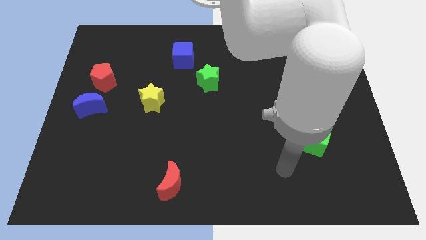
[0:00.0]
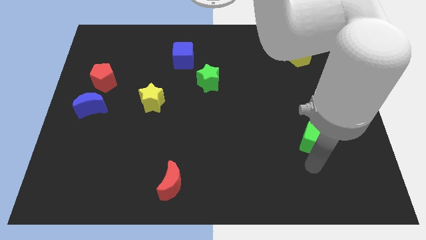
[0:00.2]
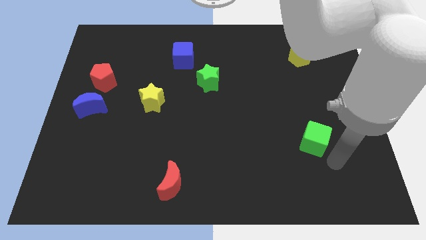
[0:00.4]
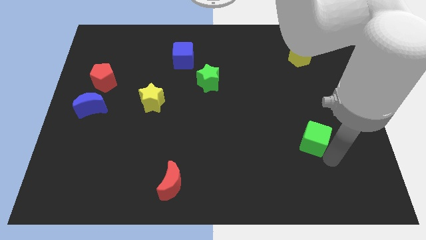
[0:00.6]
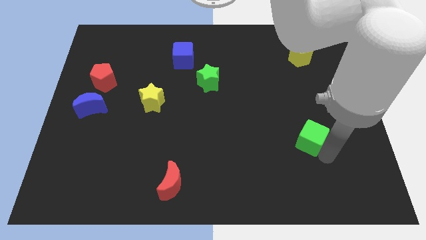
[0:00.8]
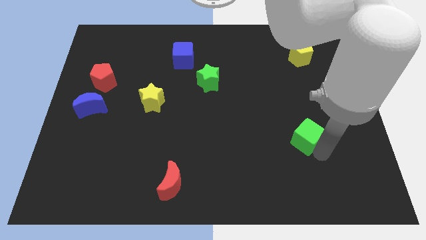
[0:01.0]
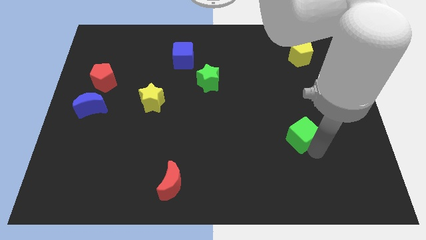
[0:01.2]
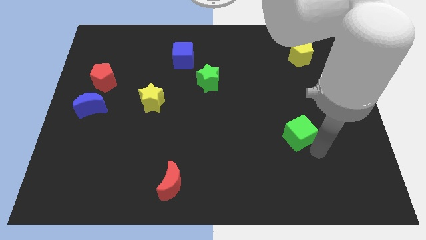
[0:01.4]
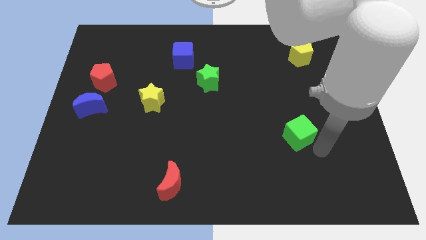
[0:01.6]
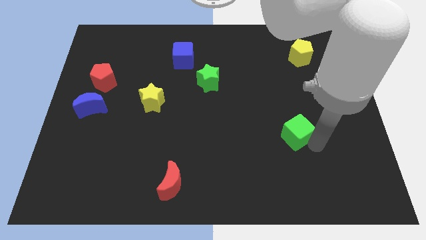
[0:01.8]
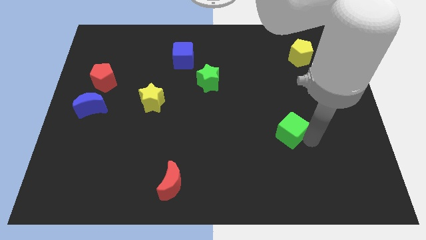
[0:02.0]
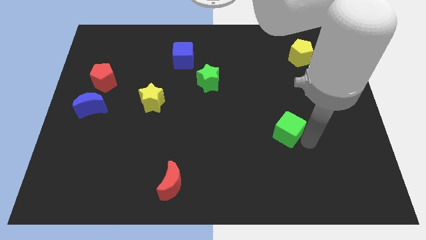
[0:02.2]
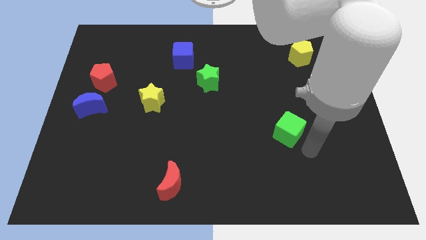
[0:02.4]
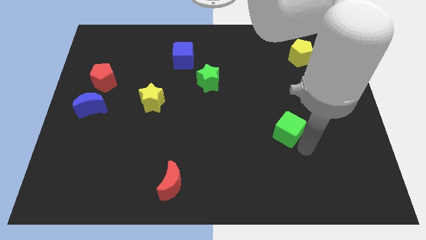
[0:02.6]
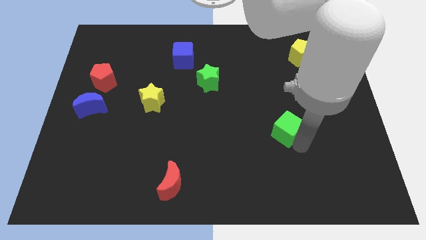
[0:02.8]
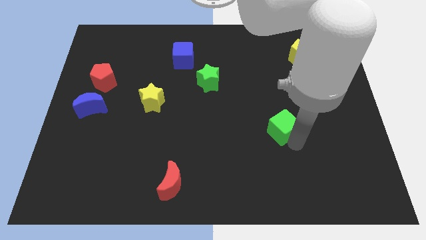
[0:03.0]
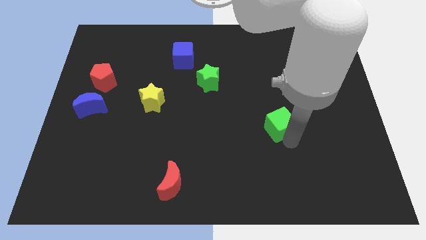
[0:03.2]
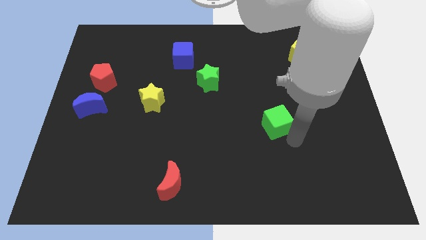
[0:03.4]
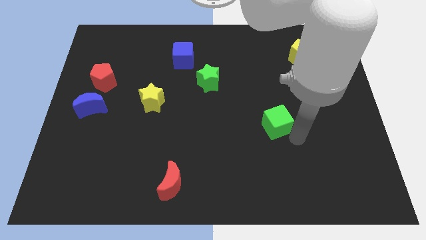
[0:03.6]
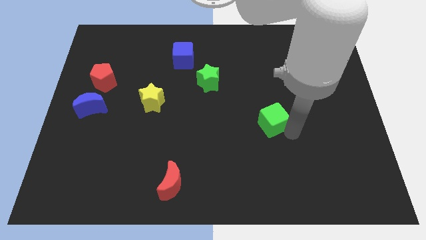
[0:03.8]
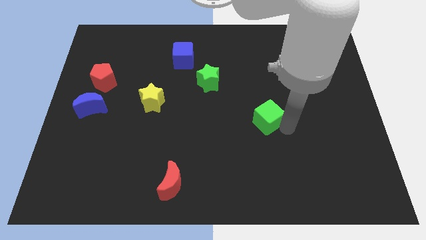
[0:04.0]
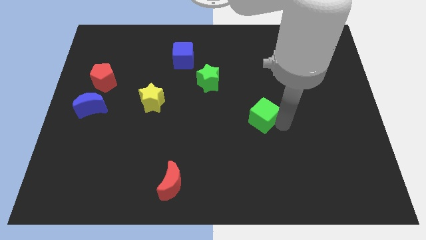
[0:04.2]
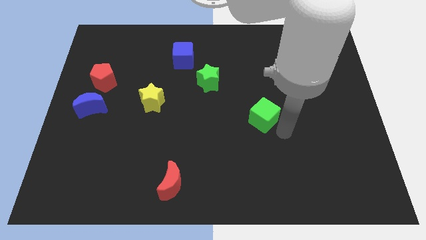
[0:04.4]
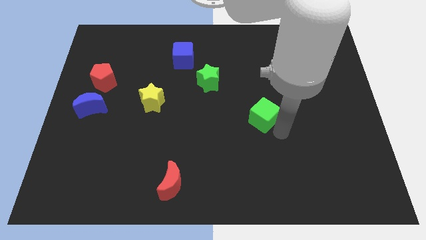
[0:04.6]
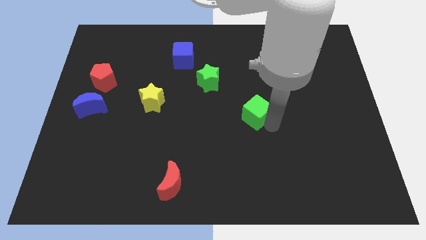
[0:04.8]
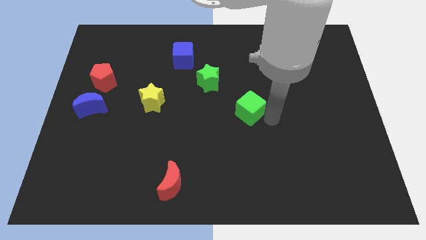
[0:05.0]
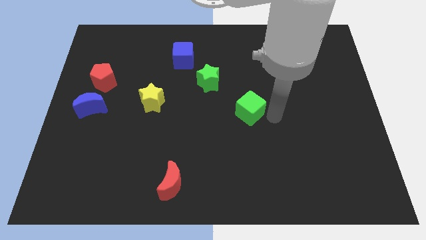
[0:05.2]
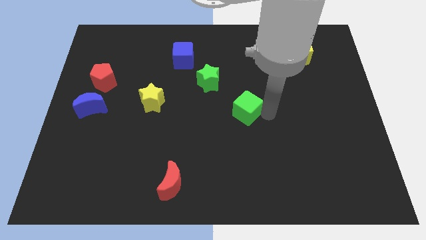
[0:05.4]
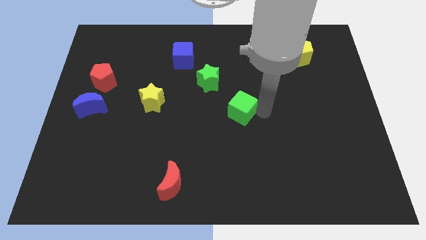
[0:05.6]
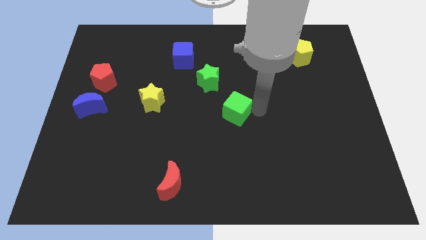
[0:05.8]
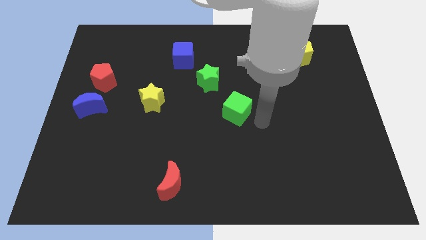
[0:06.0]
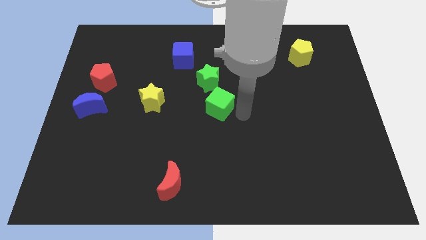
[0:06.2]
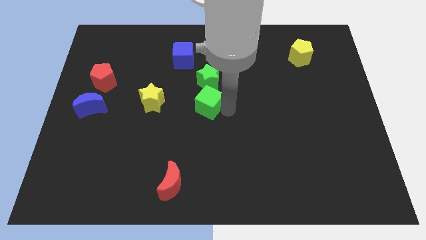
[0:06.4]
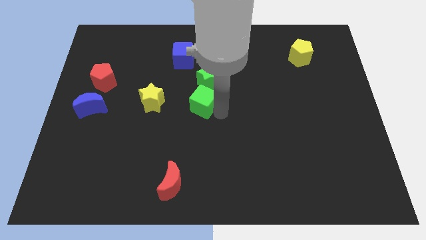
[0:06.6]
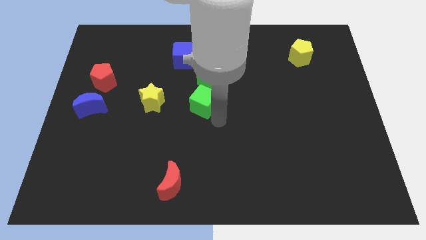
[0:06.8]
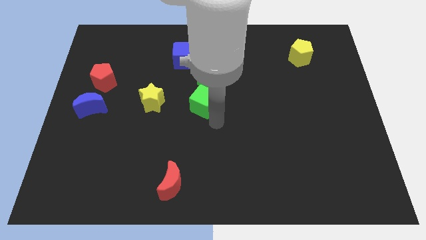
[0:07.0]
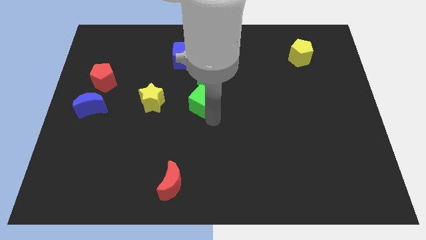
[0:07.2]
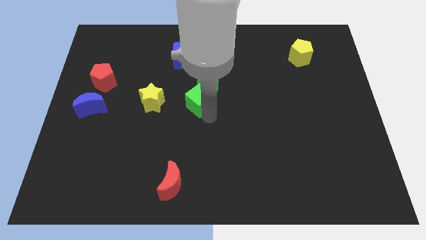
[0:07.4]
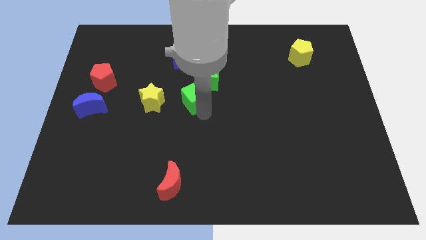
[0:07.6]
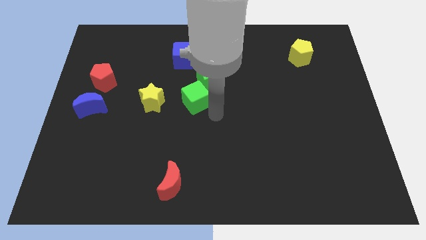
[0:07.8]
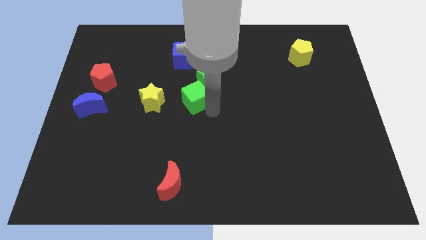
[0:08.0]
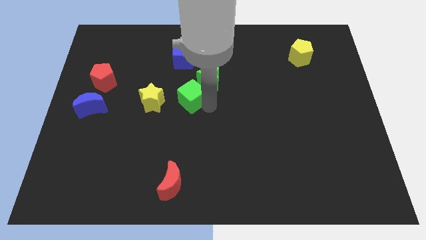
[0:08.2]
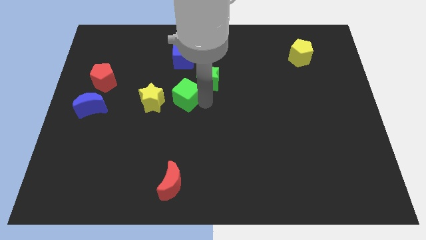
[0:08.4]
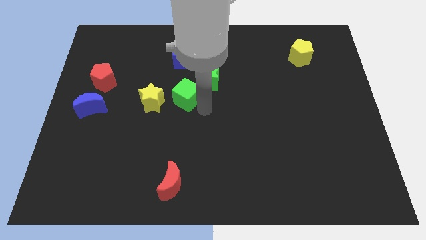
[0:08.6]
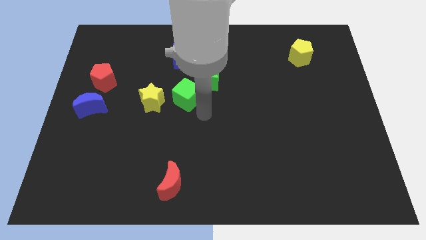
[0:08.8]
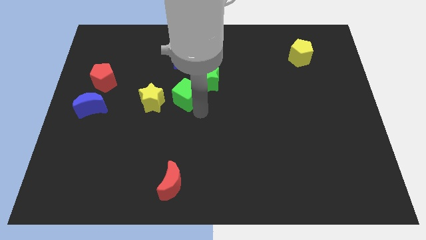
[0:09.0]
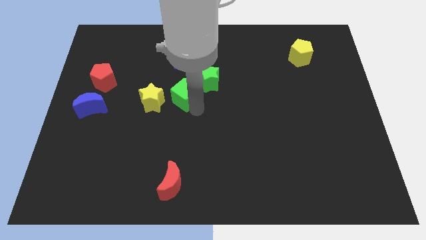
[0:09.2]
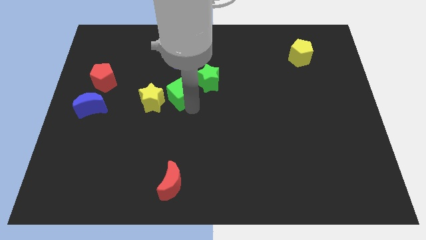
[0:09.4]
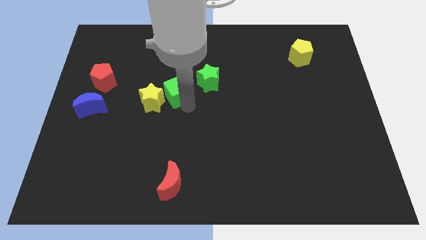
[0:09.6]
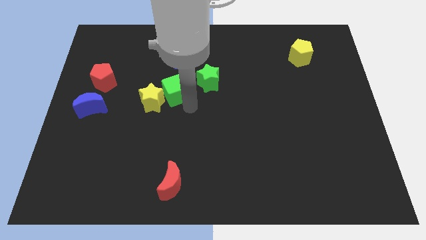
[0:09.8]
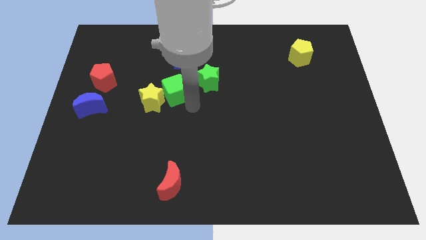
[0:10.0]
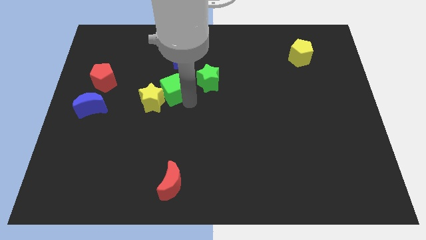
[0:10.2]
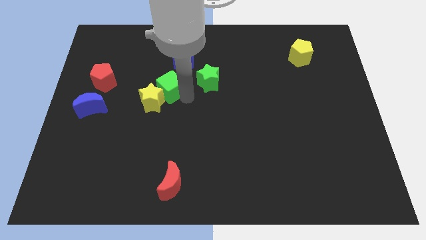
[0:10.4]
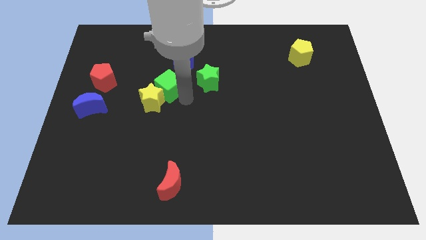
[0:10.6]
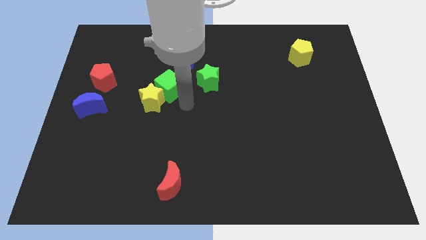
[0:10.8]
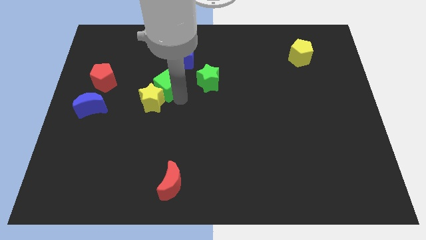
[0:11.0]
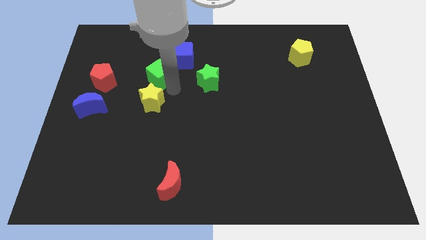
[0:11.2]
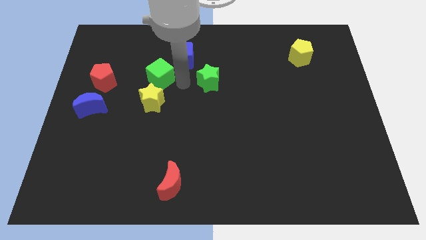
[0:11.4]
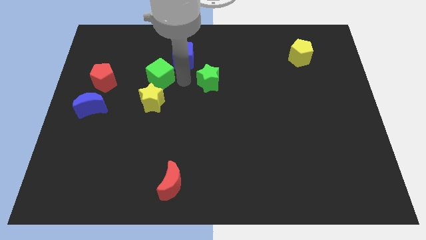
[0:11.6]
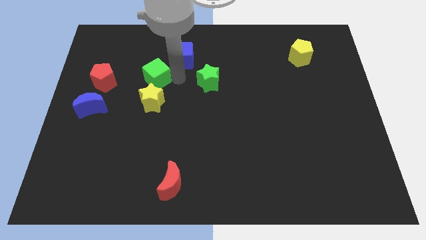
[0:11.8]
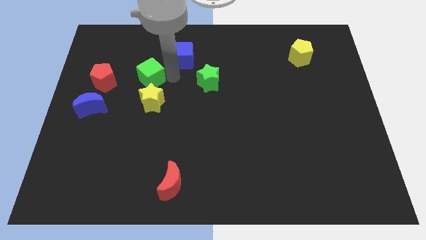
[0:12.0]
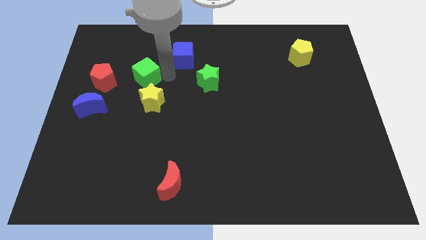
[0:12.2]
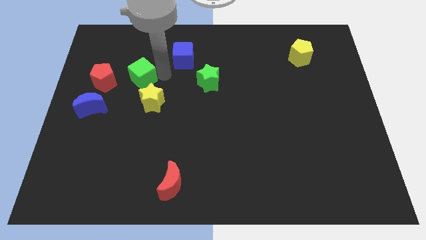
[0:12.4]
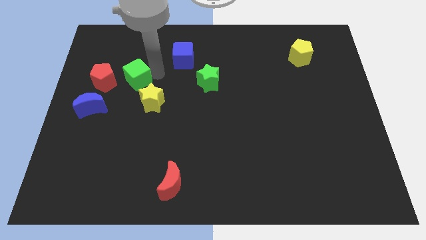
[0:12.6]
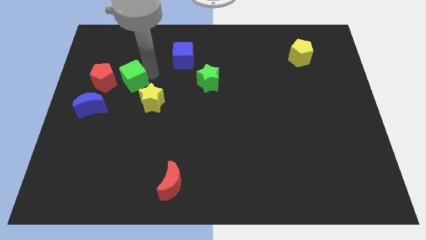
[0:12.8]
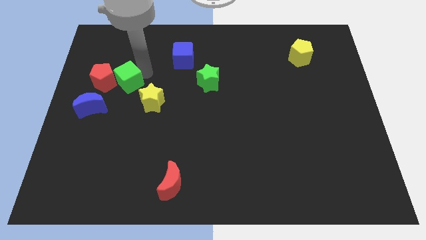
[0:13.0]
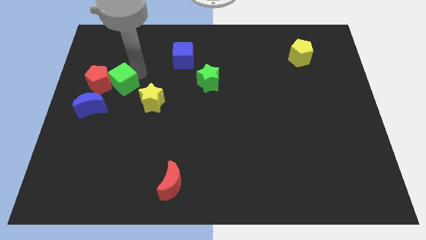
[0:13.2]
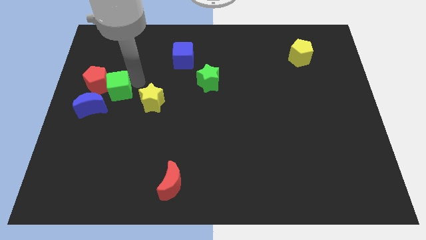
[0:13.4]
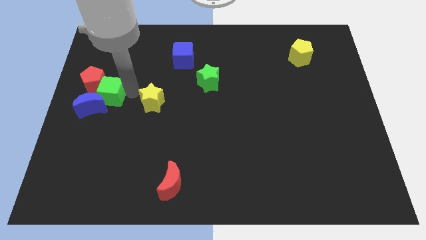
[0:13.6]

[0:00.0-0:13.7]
move the green cube to the top side of the blue moon
